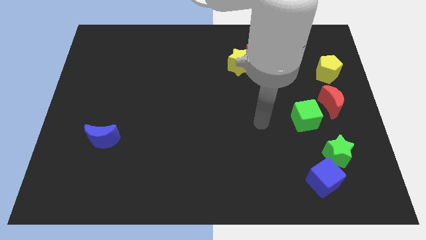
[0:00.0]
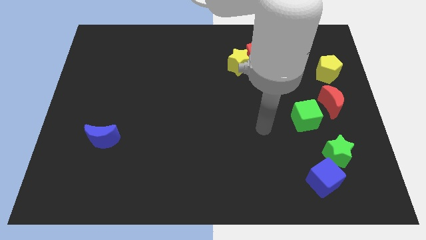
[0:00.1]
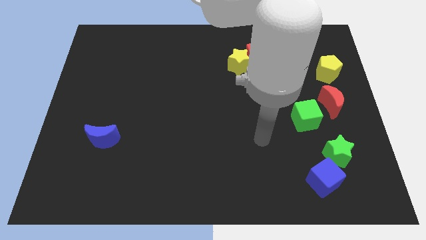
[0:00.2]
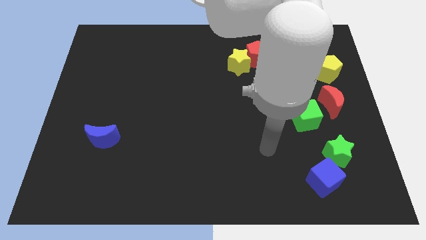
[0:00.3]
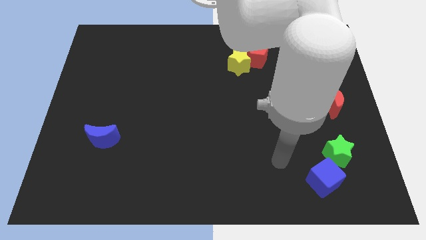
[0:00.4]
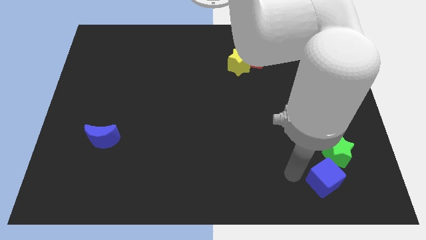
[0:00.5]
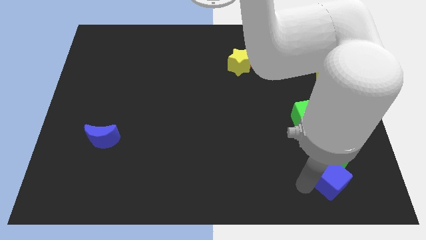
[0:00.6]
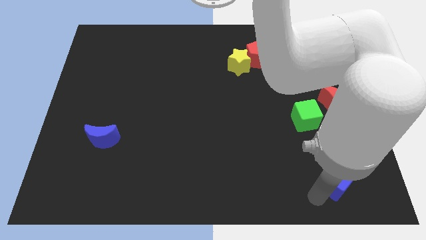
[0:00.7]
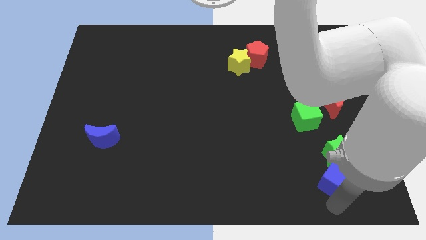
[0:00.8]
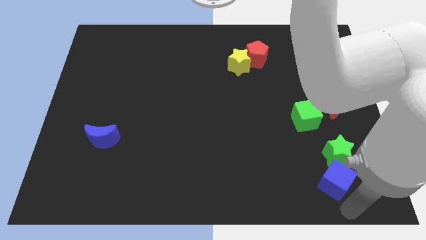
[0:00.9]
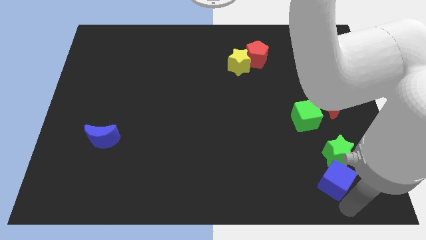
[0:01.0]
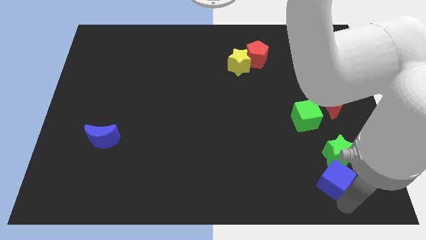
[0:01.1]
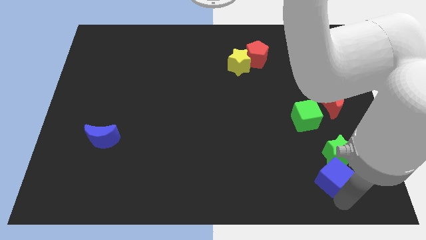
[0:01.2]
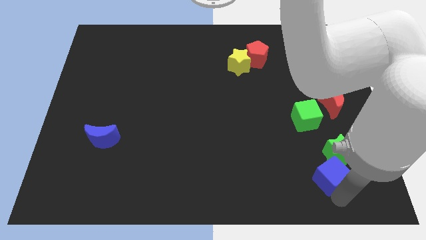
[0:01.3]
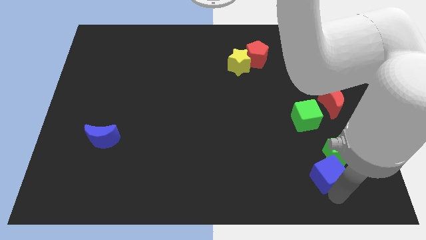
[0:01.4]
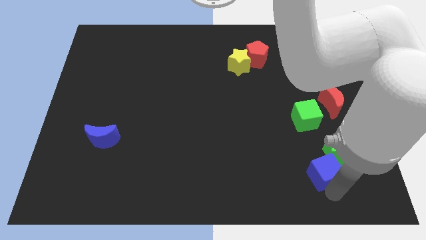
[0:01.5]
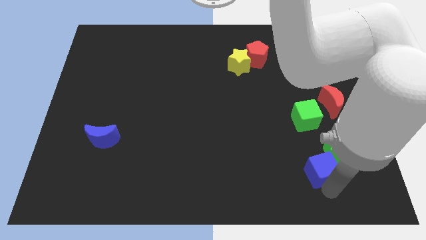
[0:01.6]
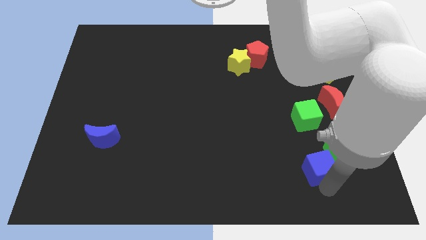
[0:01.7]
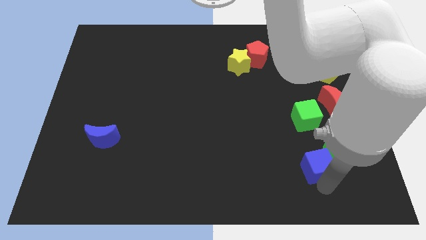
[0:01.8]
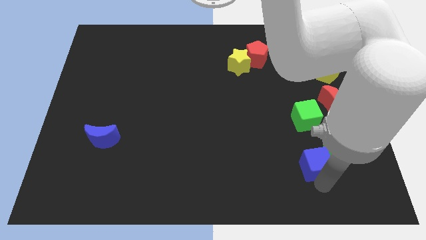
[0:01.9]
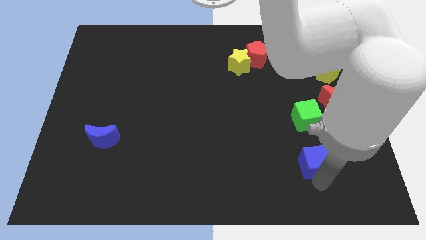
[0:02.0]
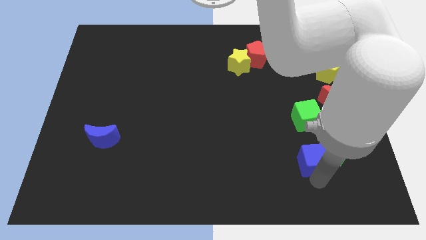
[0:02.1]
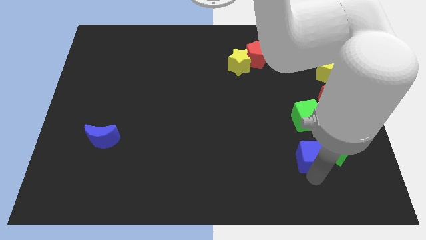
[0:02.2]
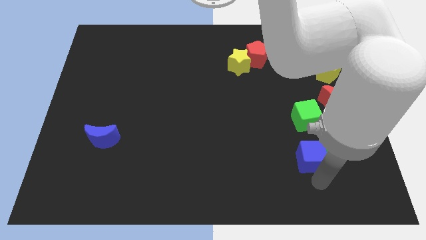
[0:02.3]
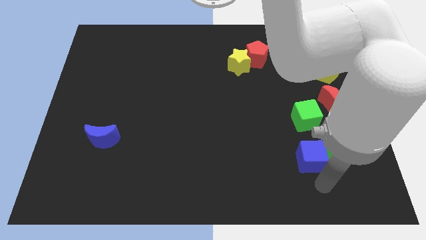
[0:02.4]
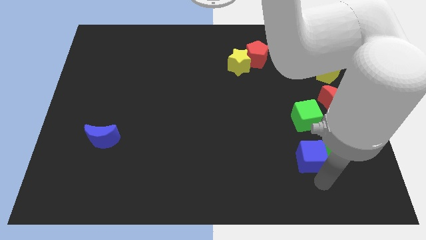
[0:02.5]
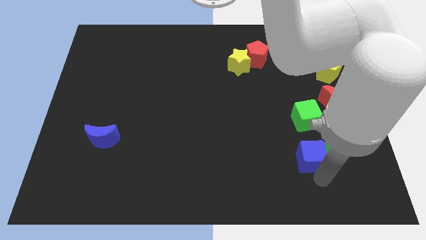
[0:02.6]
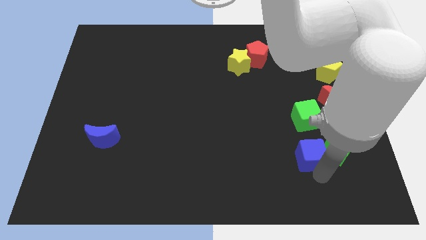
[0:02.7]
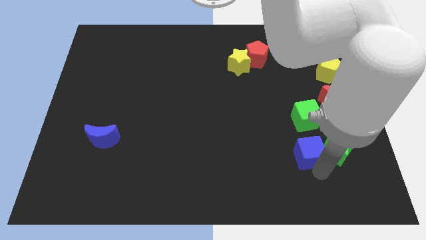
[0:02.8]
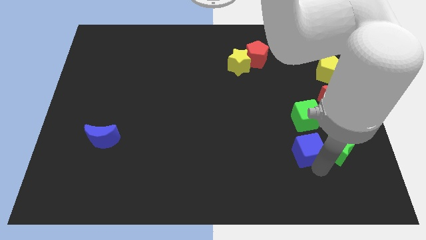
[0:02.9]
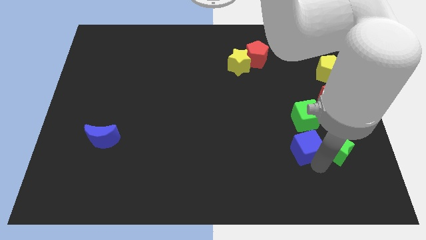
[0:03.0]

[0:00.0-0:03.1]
move the blue cube a little up

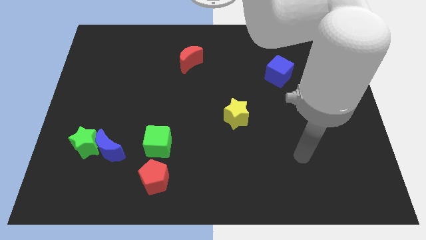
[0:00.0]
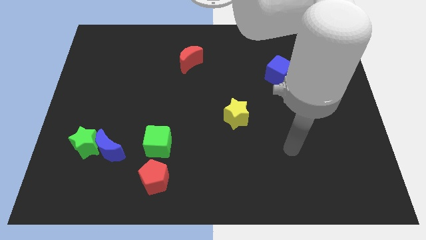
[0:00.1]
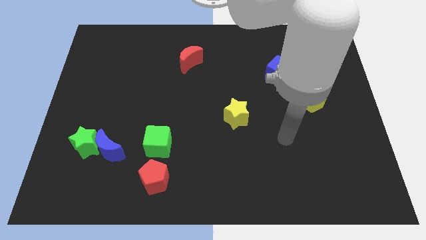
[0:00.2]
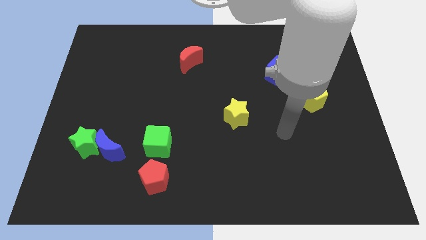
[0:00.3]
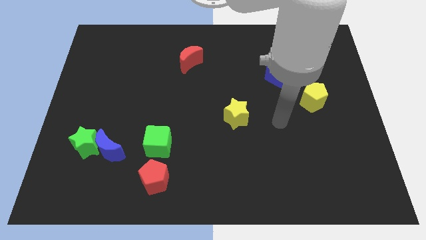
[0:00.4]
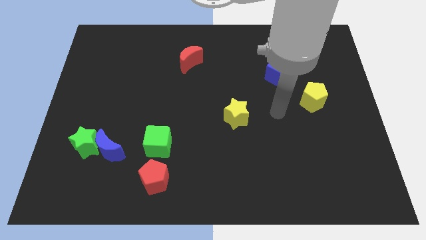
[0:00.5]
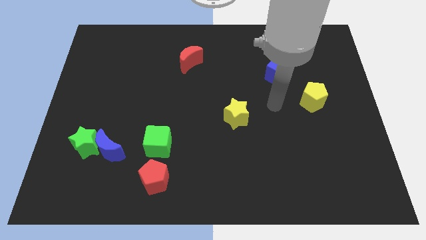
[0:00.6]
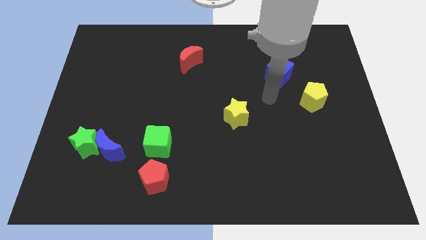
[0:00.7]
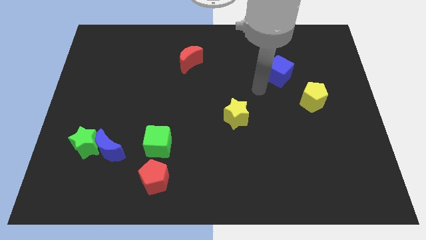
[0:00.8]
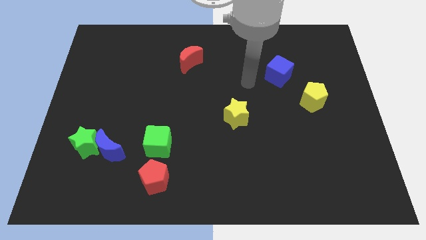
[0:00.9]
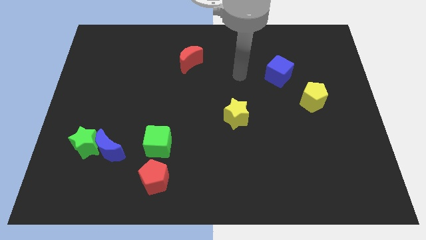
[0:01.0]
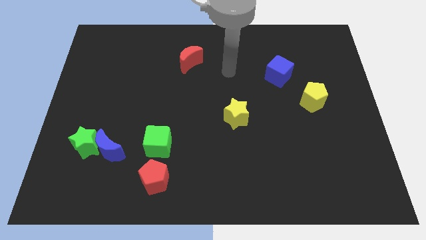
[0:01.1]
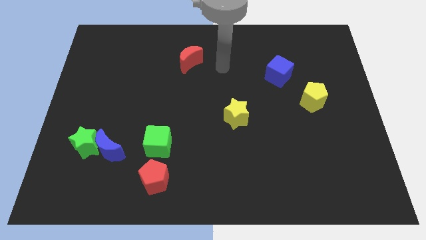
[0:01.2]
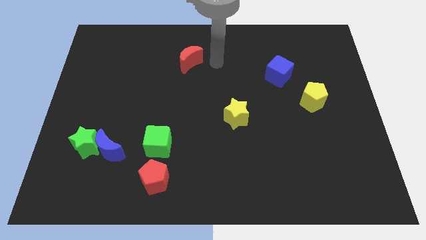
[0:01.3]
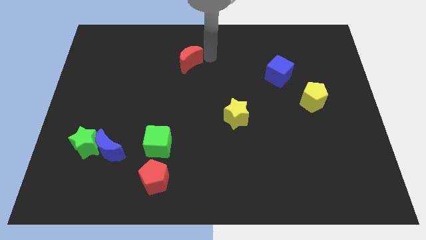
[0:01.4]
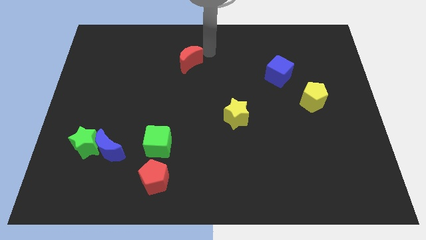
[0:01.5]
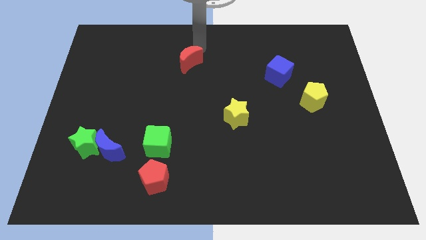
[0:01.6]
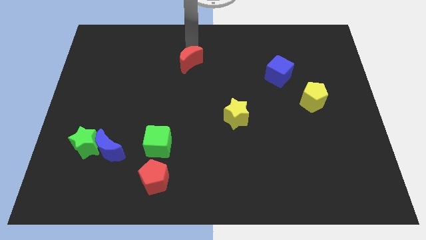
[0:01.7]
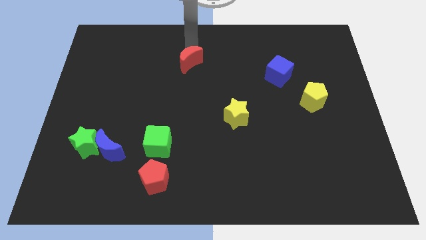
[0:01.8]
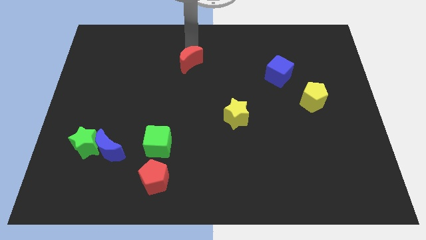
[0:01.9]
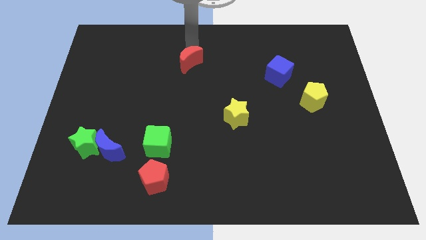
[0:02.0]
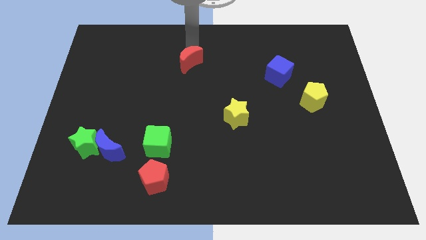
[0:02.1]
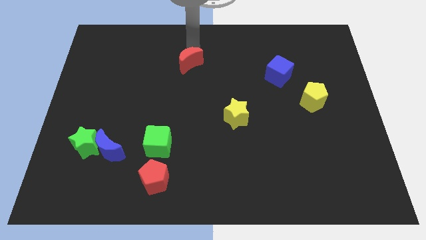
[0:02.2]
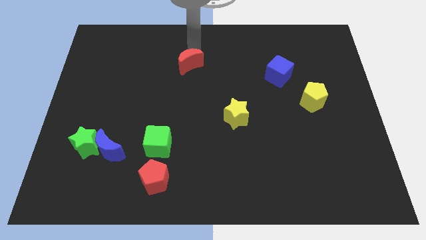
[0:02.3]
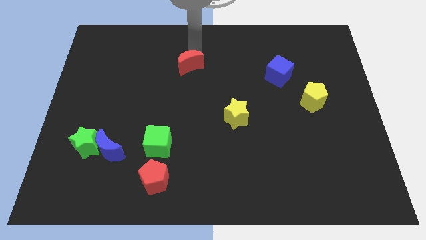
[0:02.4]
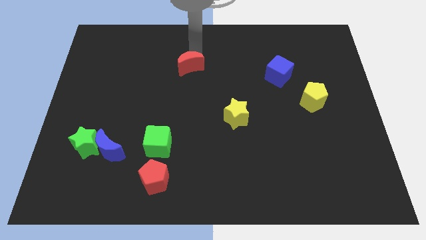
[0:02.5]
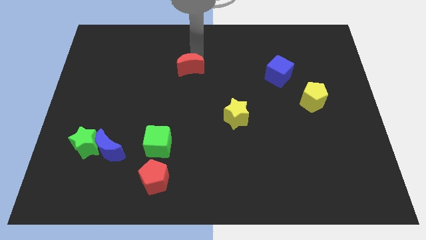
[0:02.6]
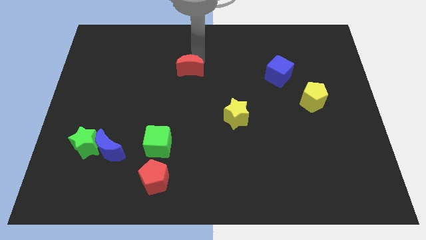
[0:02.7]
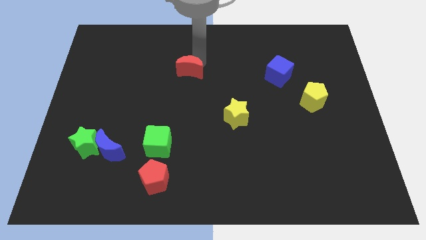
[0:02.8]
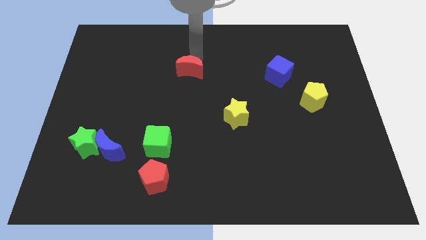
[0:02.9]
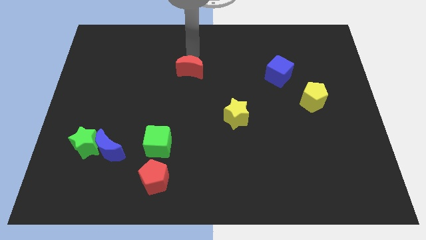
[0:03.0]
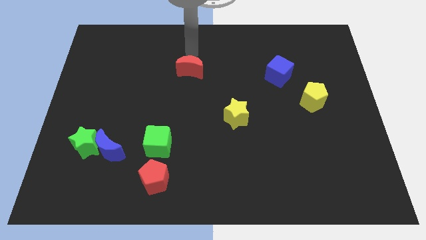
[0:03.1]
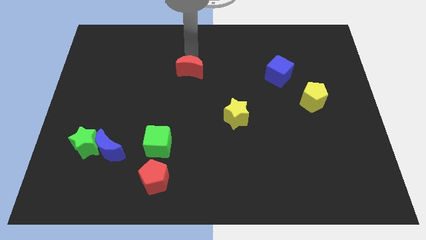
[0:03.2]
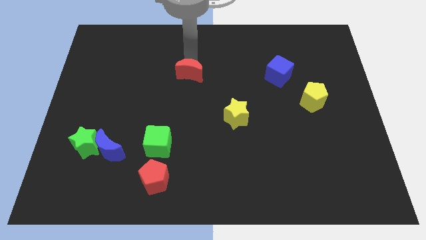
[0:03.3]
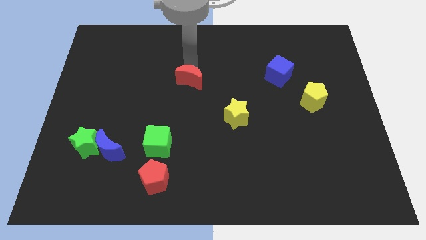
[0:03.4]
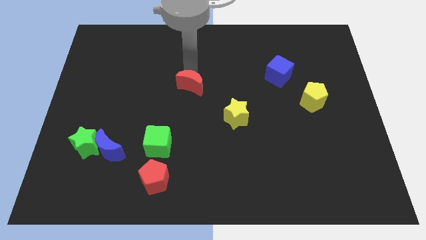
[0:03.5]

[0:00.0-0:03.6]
push the red moon a little bit down

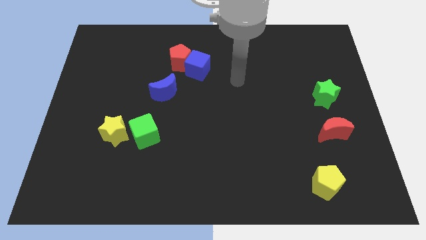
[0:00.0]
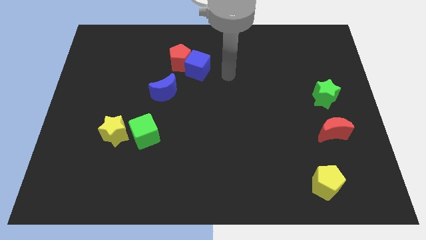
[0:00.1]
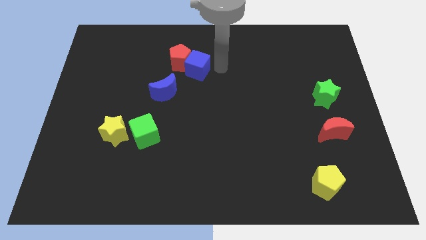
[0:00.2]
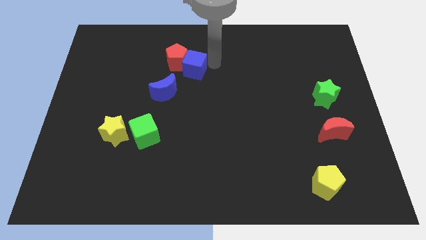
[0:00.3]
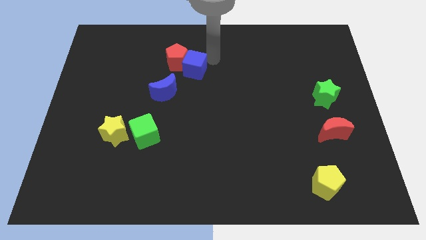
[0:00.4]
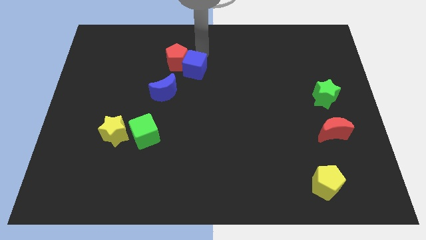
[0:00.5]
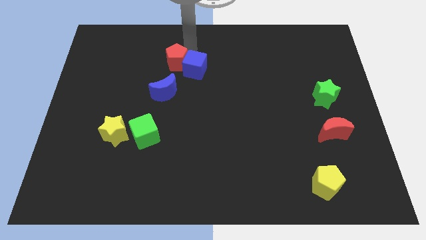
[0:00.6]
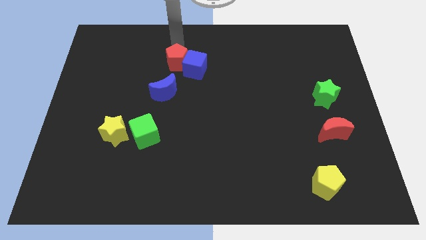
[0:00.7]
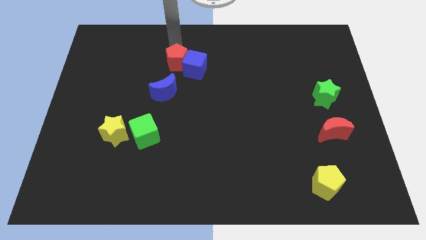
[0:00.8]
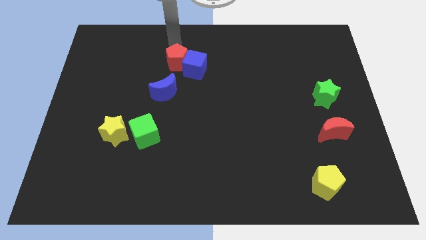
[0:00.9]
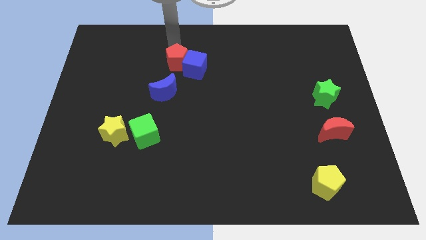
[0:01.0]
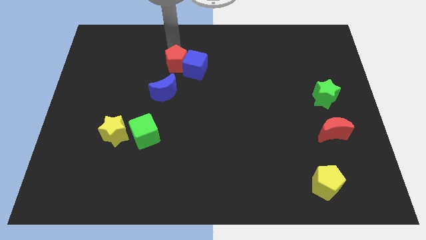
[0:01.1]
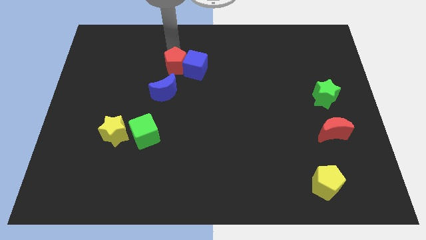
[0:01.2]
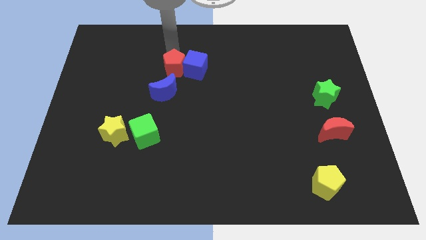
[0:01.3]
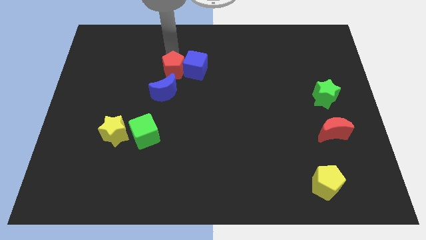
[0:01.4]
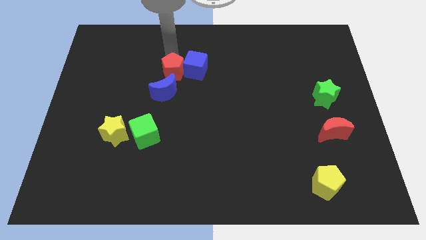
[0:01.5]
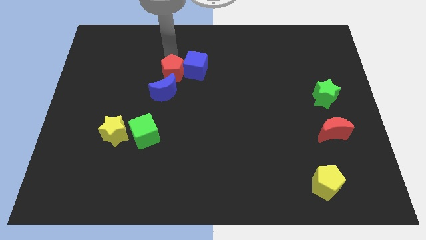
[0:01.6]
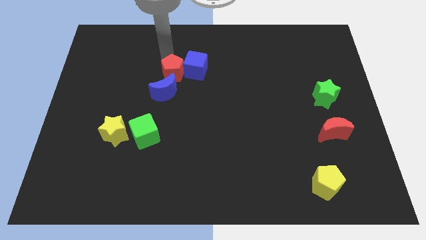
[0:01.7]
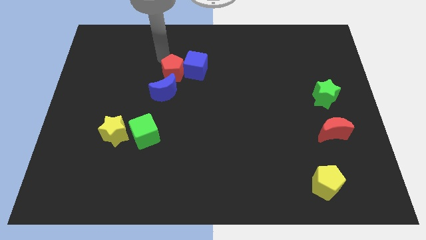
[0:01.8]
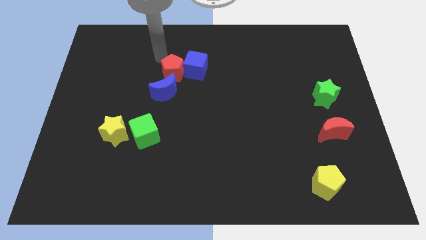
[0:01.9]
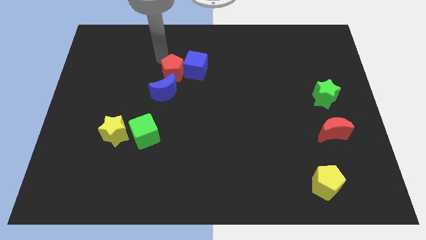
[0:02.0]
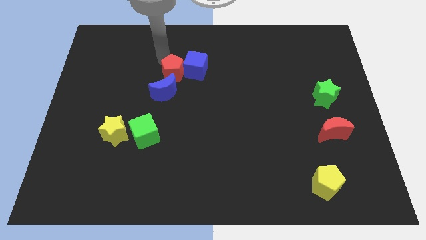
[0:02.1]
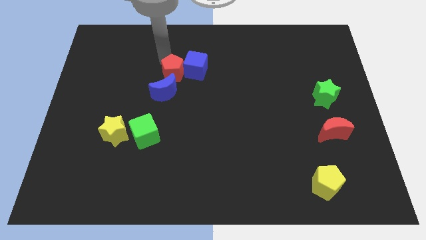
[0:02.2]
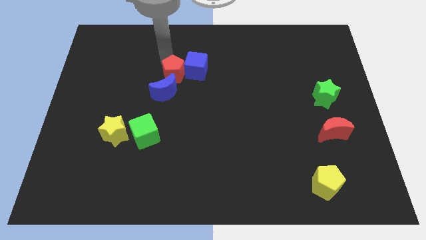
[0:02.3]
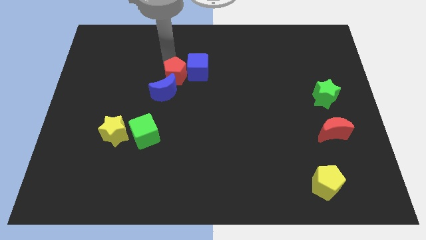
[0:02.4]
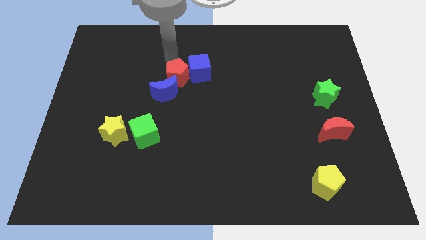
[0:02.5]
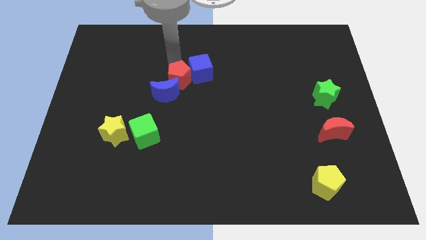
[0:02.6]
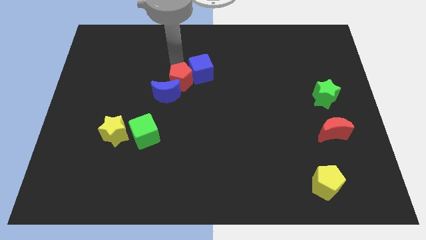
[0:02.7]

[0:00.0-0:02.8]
slightly slide the red pentagon downwards
